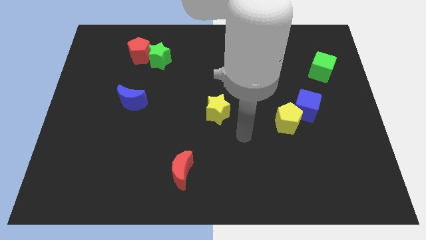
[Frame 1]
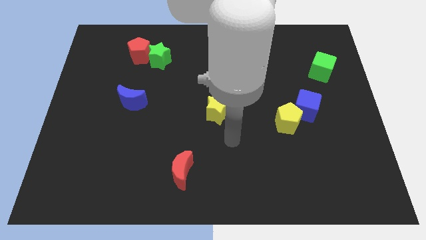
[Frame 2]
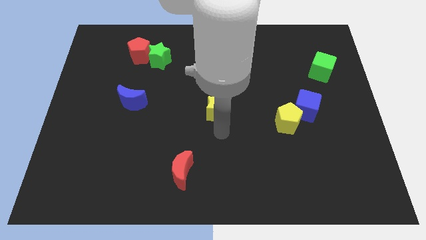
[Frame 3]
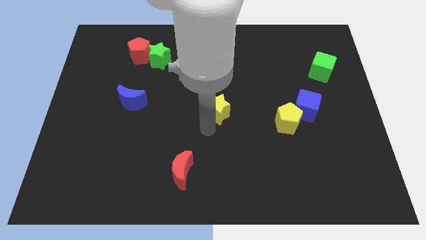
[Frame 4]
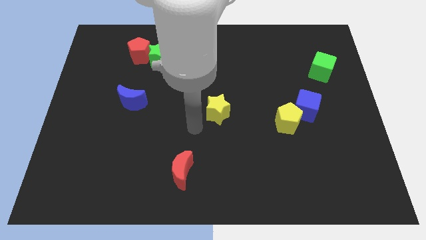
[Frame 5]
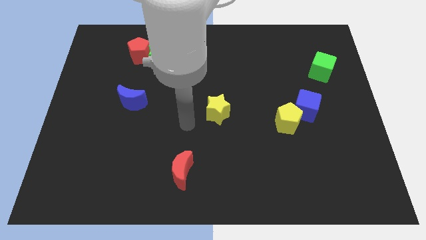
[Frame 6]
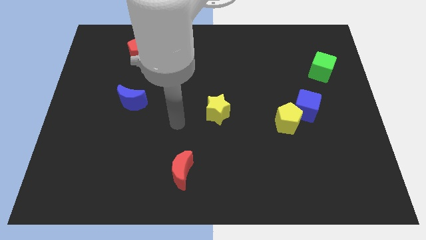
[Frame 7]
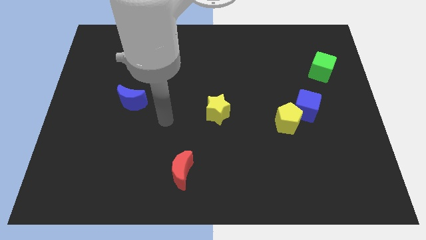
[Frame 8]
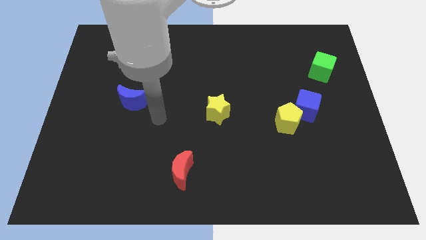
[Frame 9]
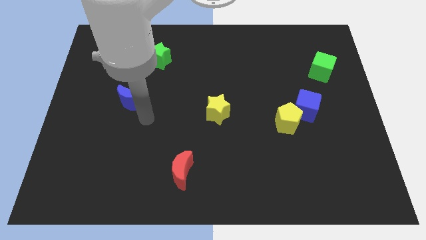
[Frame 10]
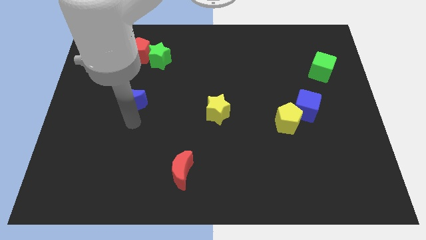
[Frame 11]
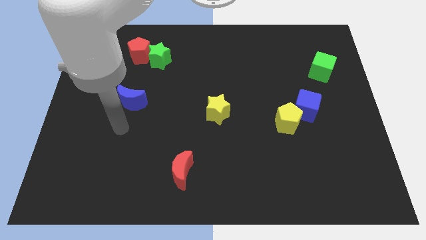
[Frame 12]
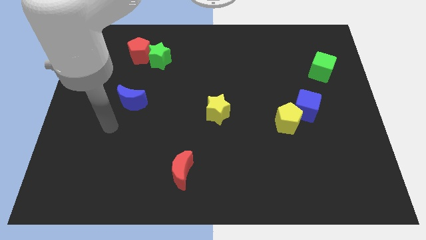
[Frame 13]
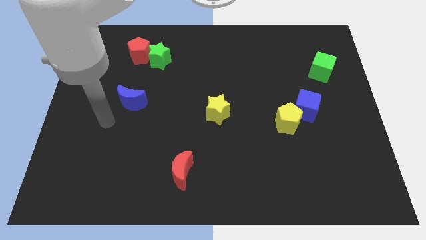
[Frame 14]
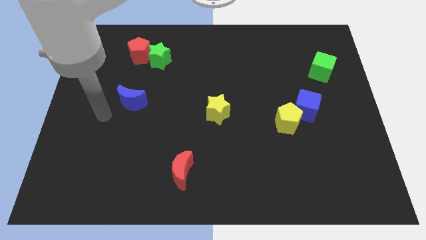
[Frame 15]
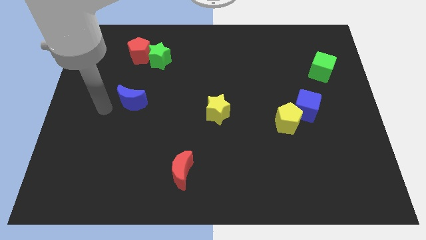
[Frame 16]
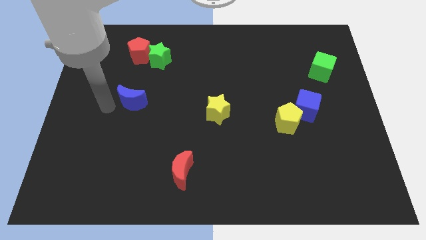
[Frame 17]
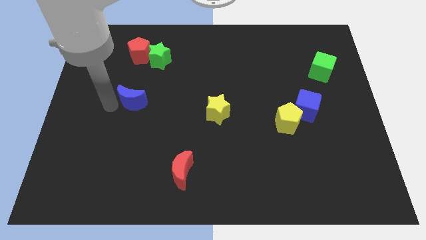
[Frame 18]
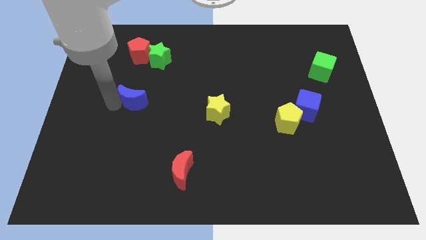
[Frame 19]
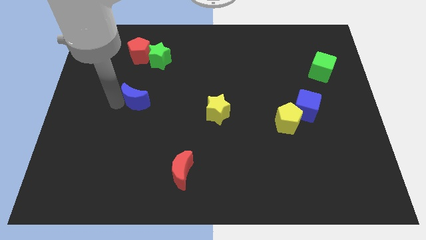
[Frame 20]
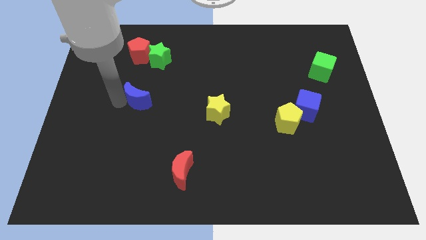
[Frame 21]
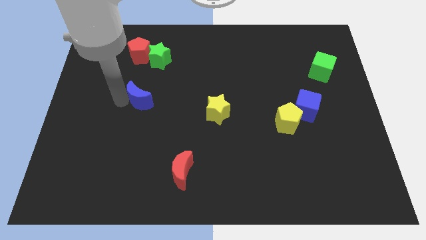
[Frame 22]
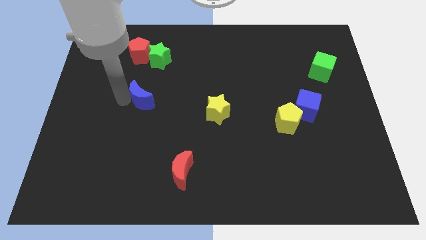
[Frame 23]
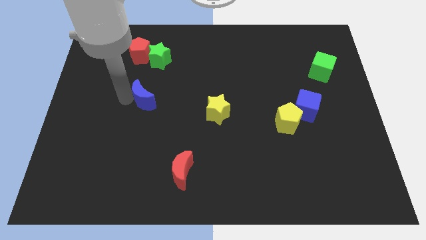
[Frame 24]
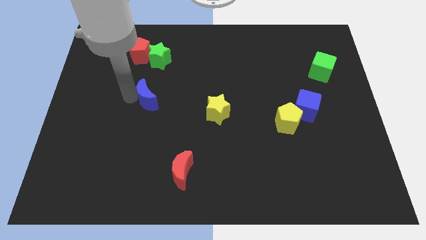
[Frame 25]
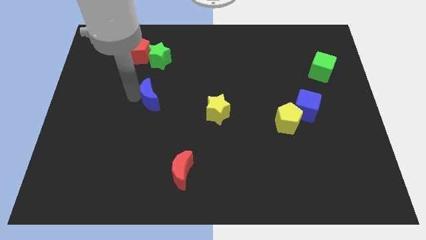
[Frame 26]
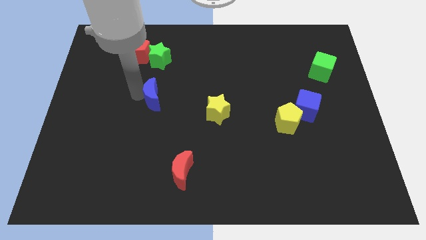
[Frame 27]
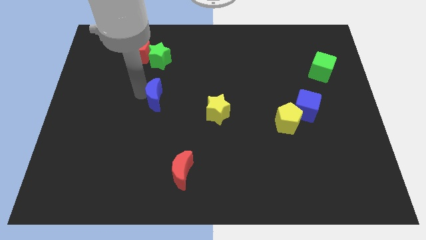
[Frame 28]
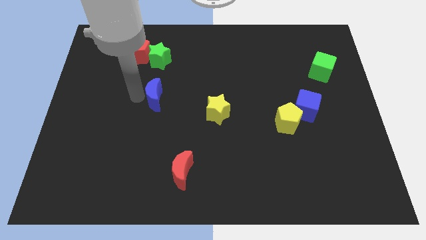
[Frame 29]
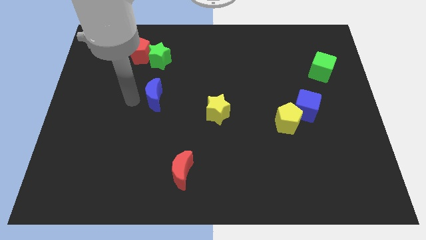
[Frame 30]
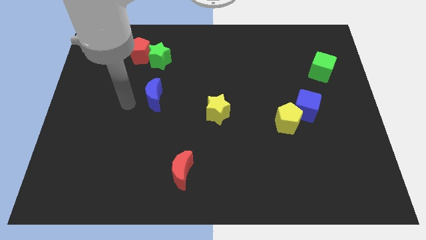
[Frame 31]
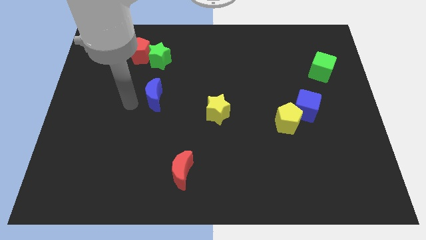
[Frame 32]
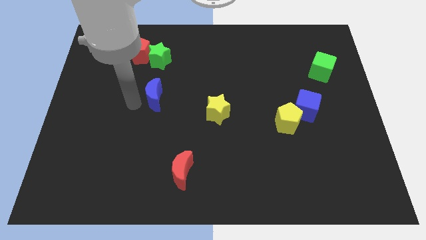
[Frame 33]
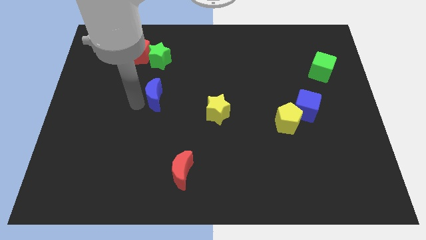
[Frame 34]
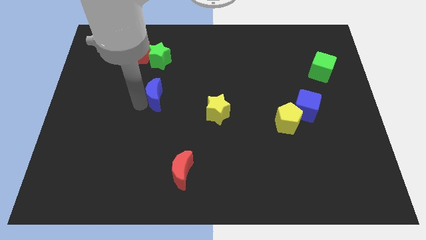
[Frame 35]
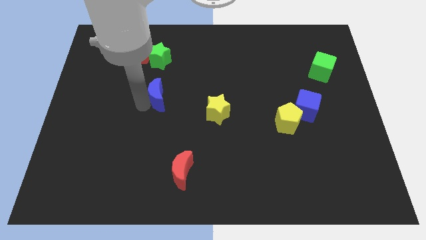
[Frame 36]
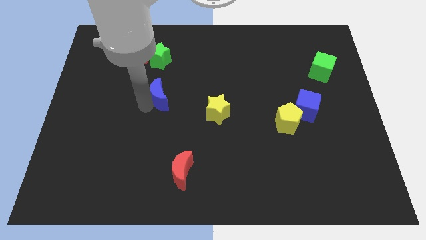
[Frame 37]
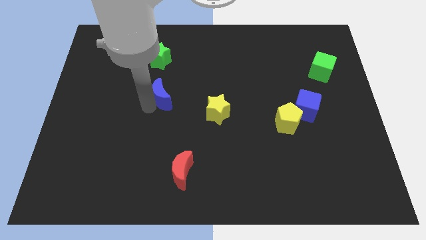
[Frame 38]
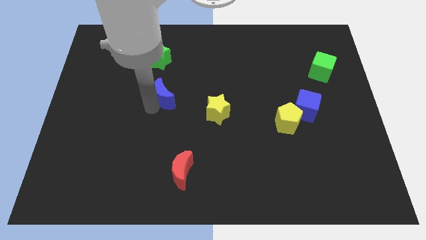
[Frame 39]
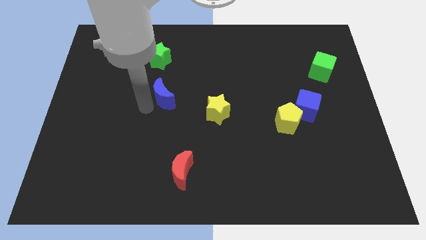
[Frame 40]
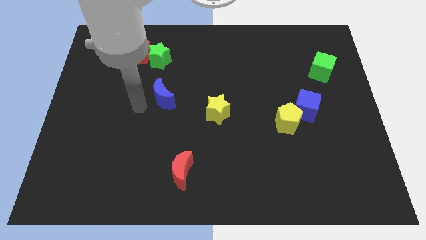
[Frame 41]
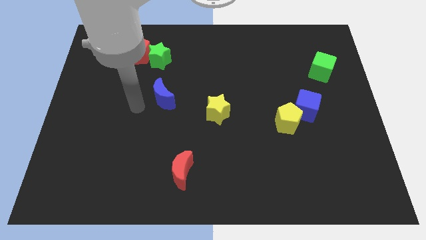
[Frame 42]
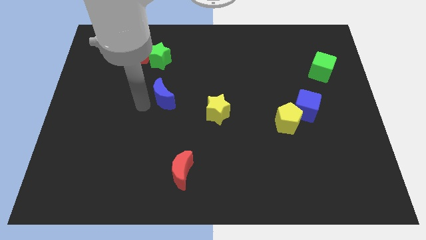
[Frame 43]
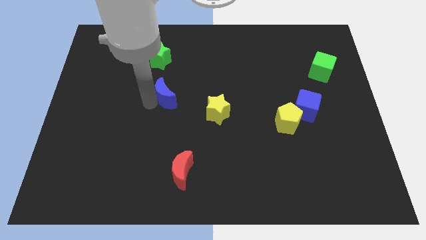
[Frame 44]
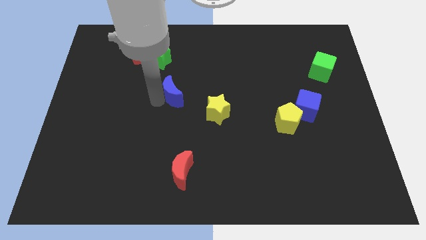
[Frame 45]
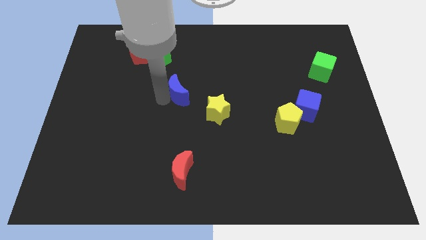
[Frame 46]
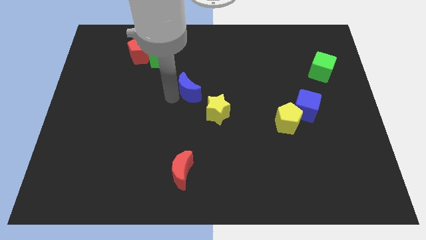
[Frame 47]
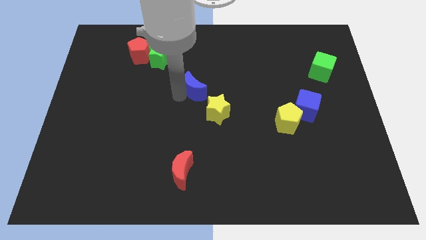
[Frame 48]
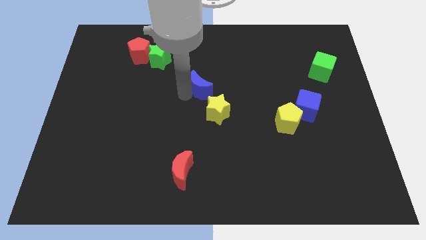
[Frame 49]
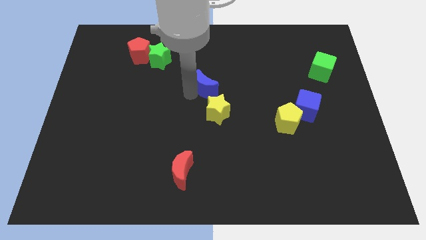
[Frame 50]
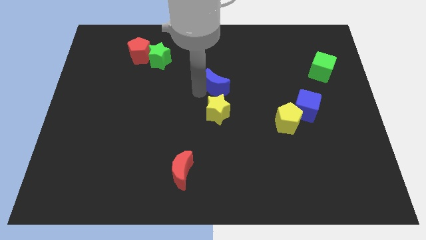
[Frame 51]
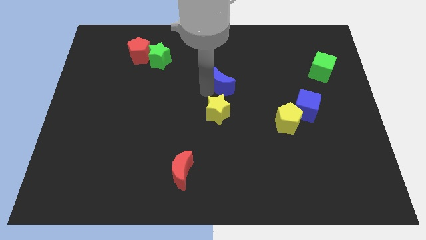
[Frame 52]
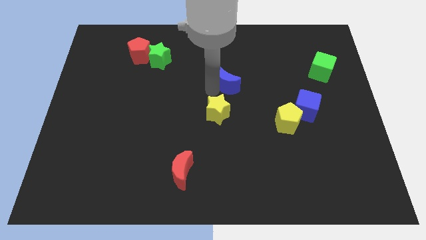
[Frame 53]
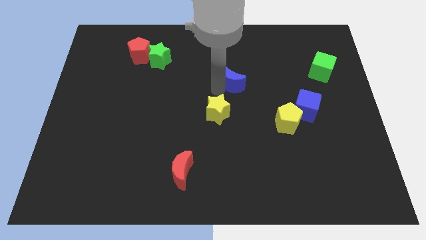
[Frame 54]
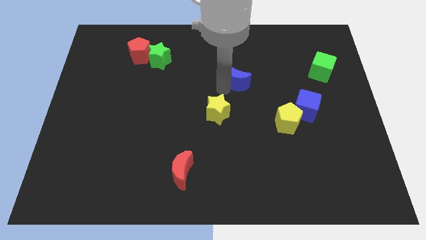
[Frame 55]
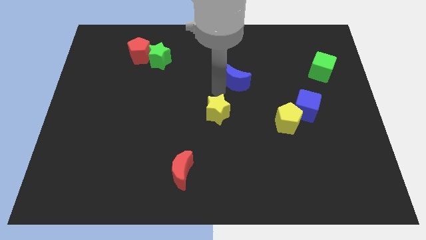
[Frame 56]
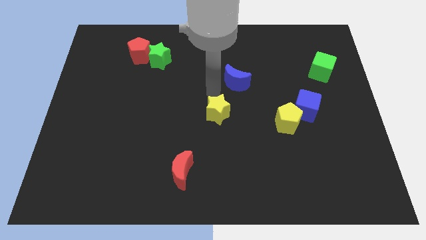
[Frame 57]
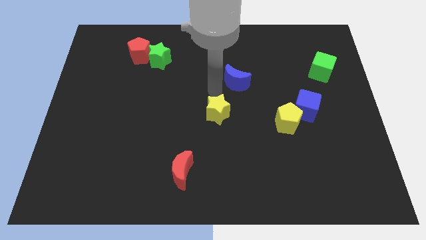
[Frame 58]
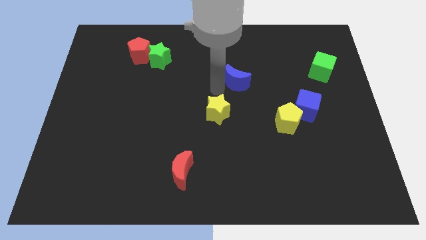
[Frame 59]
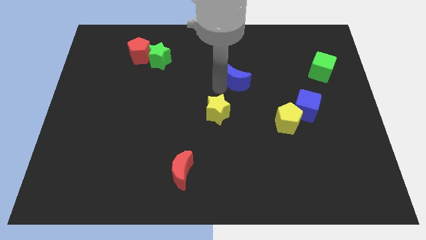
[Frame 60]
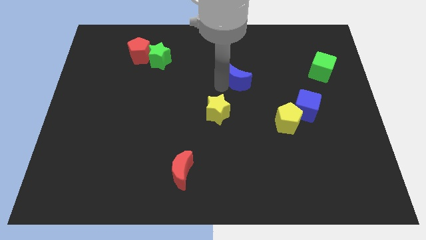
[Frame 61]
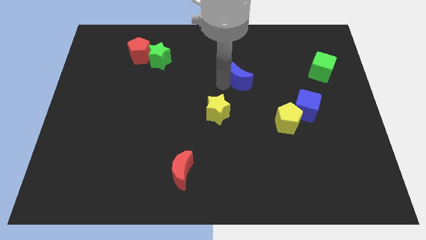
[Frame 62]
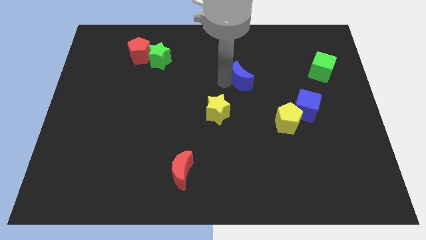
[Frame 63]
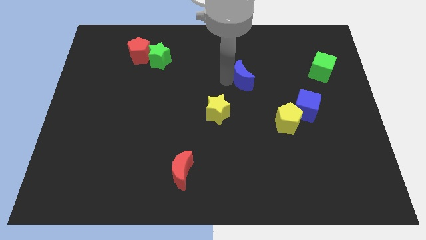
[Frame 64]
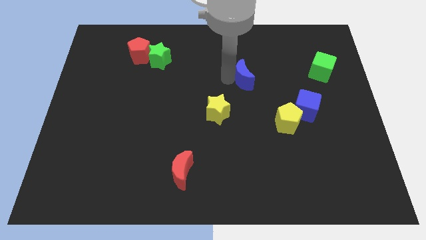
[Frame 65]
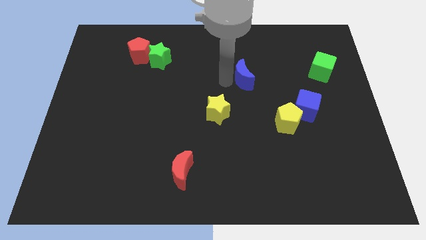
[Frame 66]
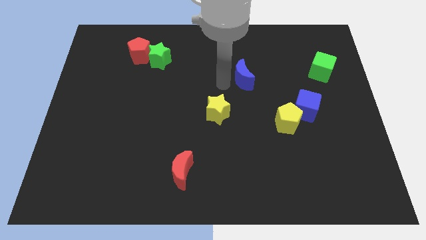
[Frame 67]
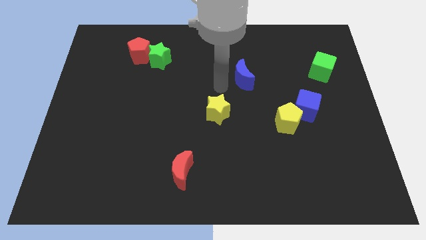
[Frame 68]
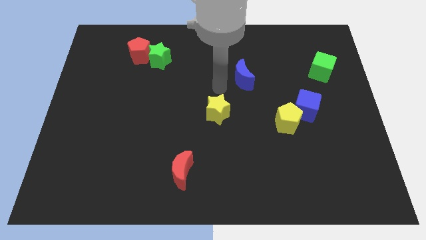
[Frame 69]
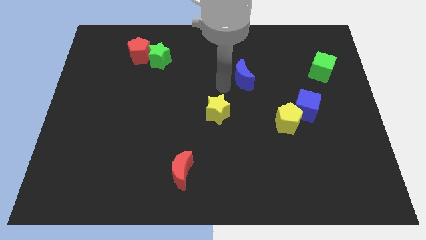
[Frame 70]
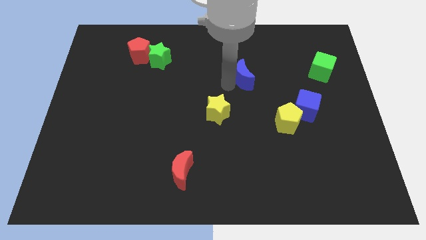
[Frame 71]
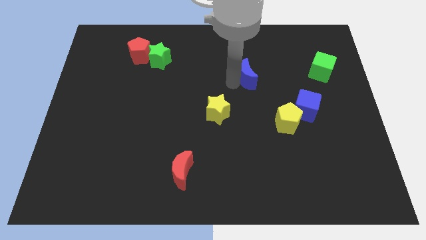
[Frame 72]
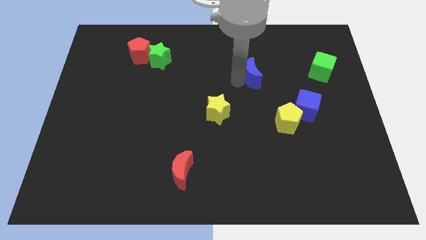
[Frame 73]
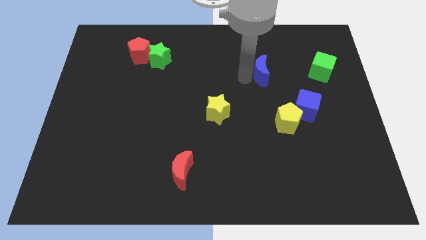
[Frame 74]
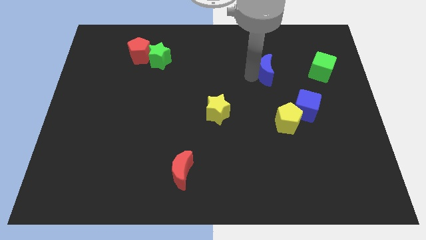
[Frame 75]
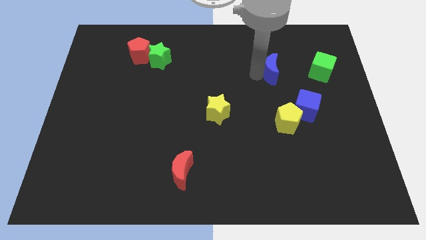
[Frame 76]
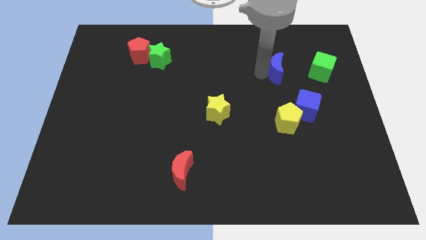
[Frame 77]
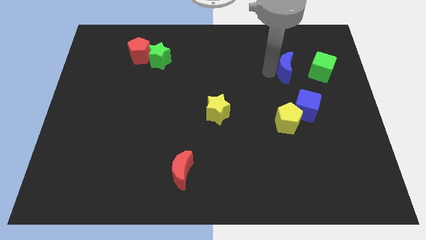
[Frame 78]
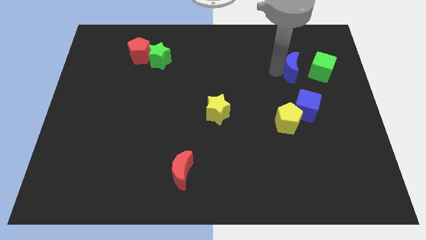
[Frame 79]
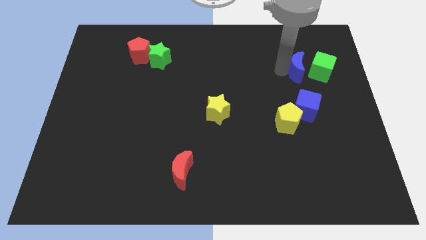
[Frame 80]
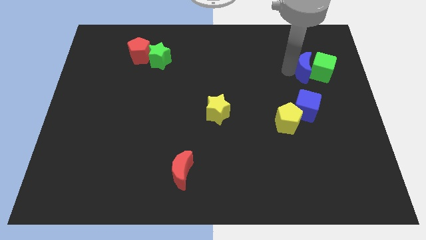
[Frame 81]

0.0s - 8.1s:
push the blue moon close to the green cube
